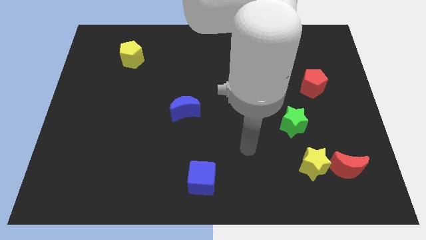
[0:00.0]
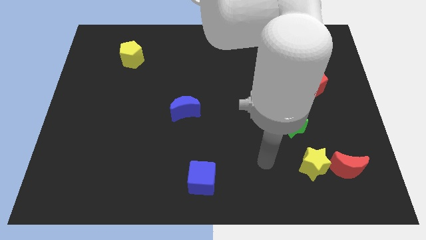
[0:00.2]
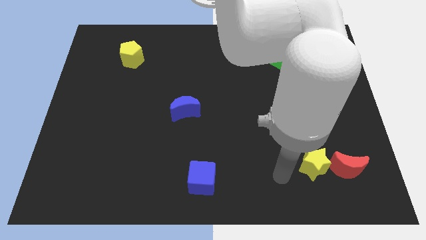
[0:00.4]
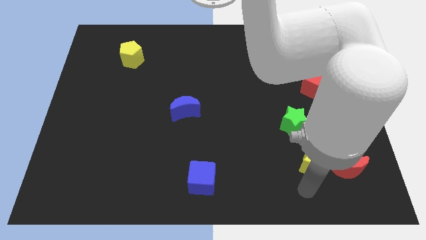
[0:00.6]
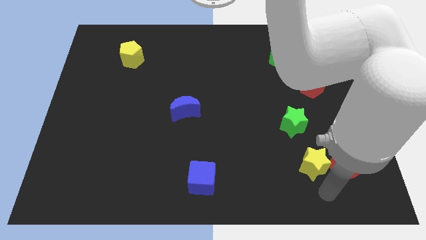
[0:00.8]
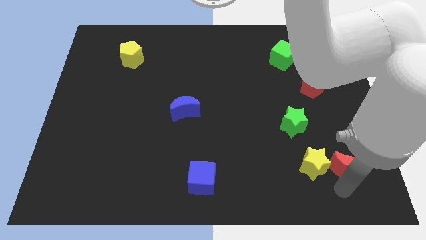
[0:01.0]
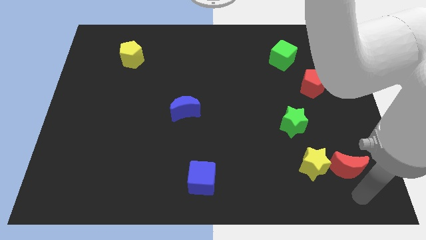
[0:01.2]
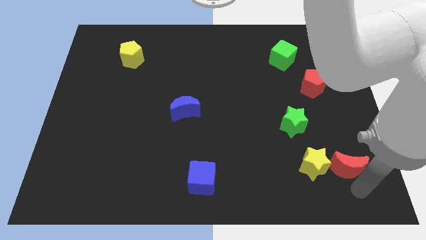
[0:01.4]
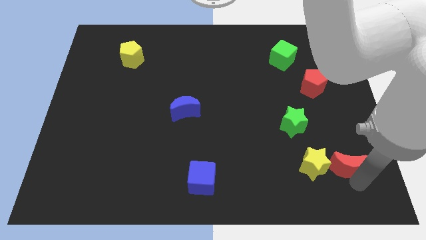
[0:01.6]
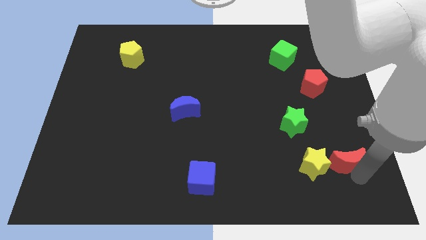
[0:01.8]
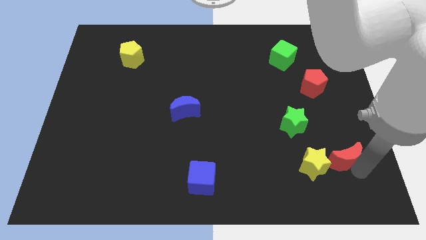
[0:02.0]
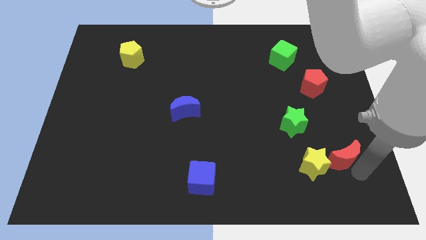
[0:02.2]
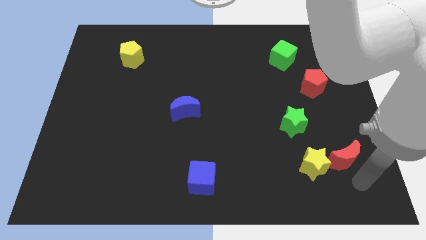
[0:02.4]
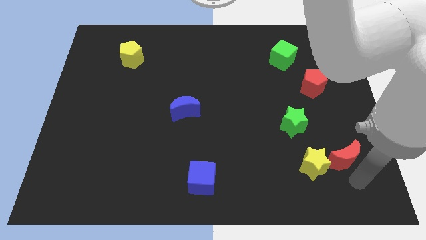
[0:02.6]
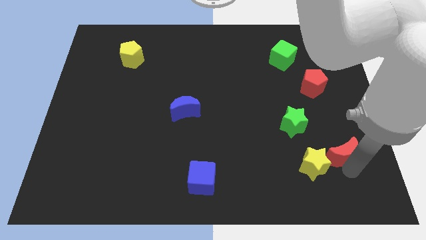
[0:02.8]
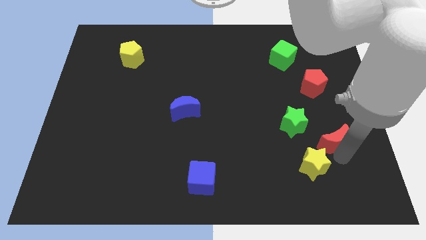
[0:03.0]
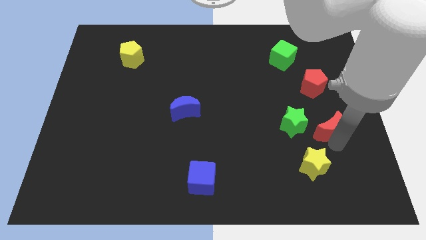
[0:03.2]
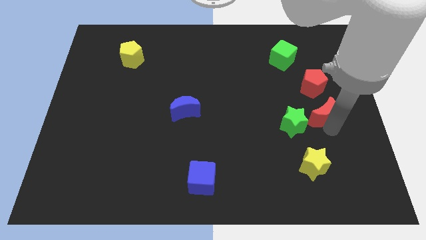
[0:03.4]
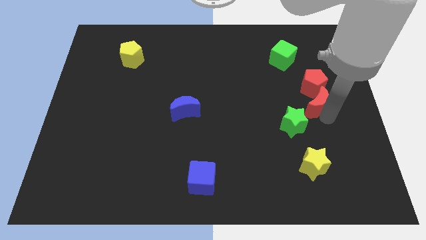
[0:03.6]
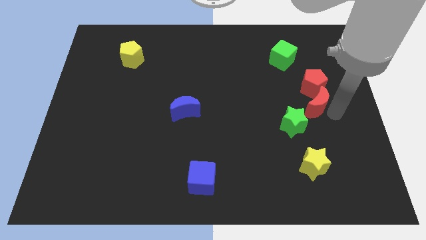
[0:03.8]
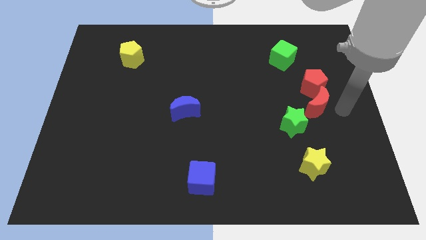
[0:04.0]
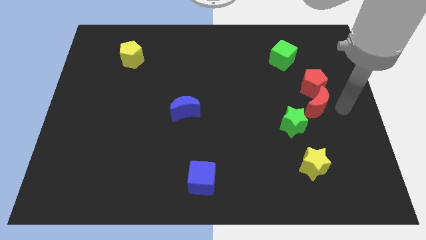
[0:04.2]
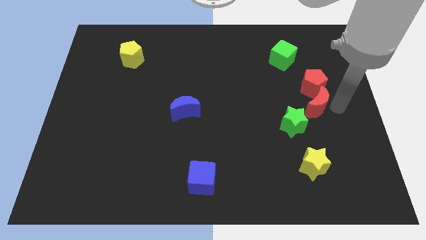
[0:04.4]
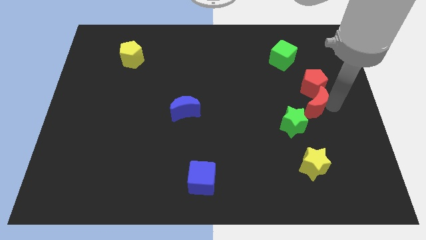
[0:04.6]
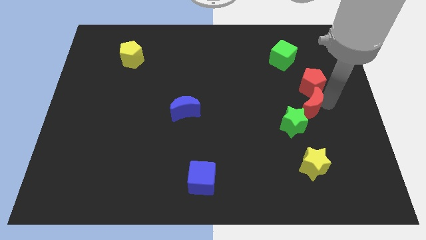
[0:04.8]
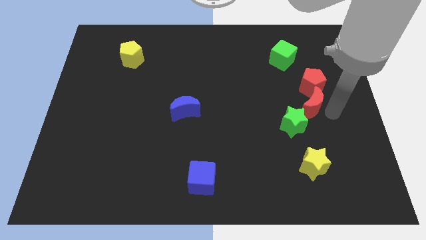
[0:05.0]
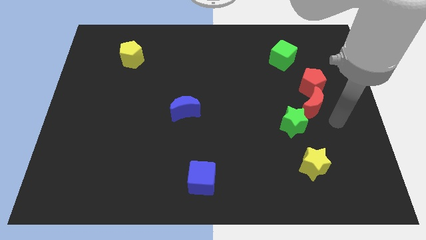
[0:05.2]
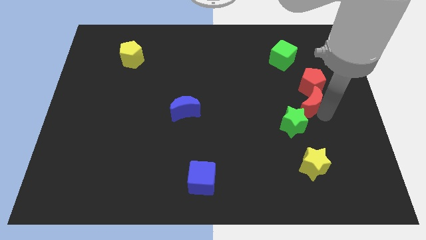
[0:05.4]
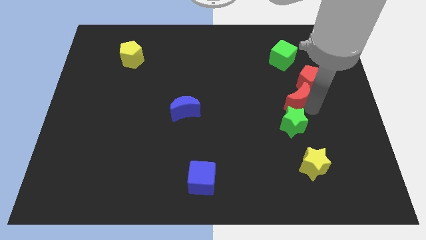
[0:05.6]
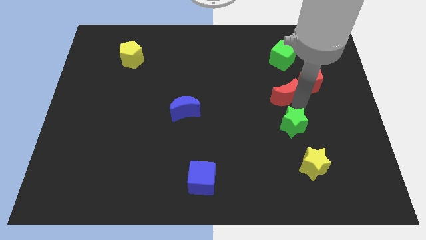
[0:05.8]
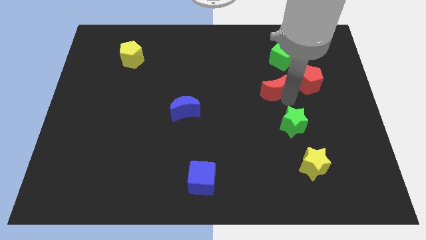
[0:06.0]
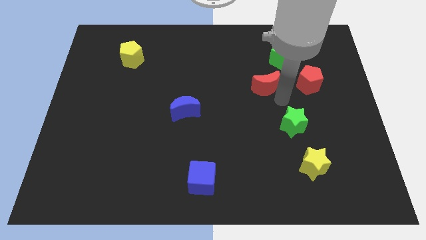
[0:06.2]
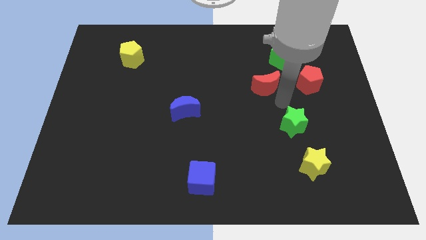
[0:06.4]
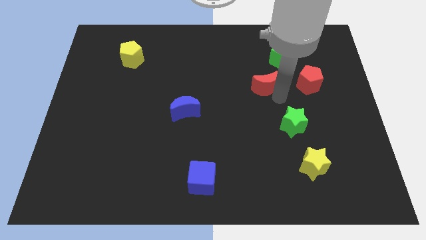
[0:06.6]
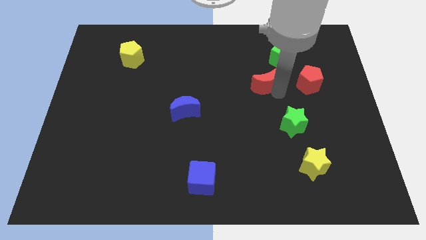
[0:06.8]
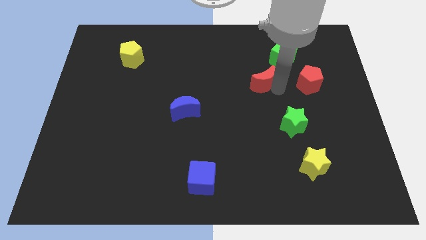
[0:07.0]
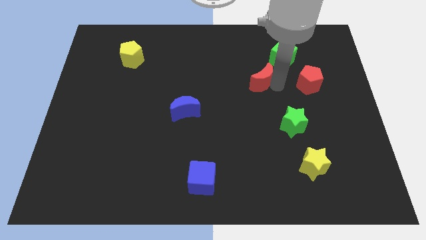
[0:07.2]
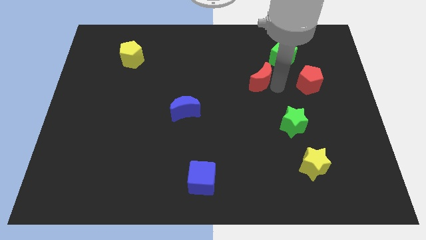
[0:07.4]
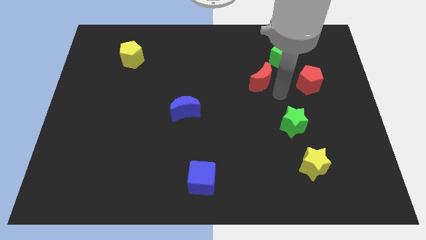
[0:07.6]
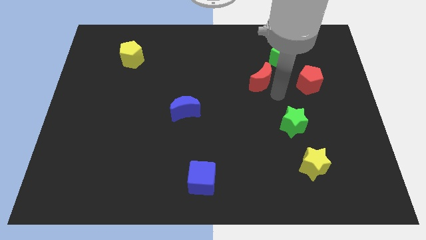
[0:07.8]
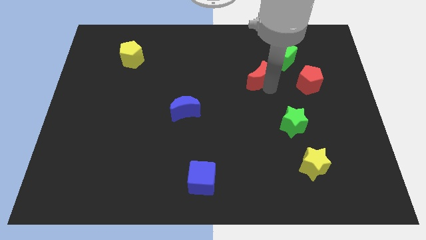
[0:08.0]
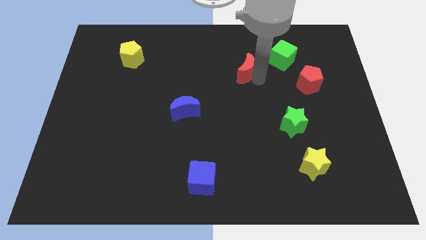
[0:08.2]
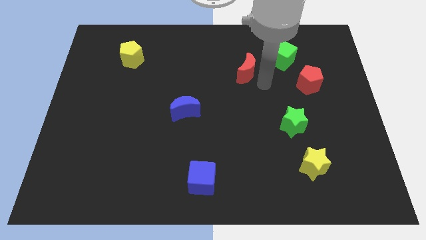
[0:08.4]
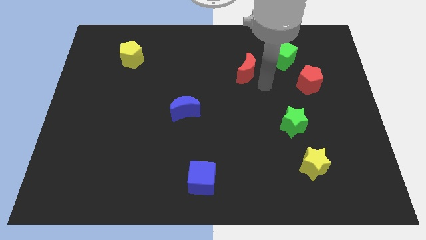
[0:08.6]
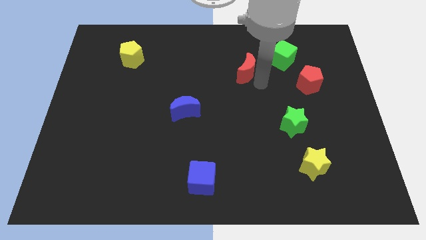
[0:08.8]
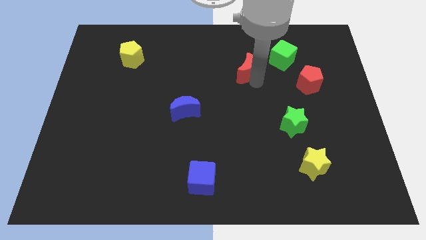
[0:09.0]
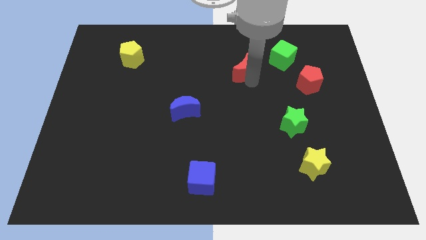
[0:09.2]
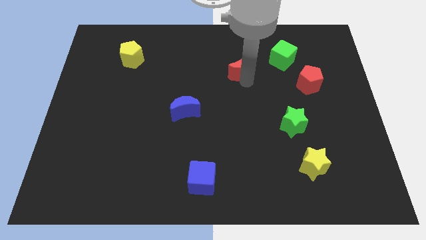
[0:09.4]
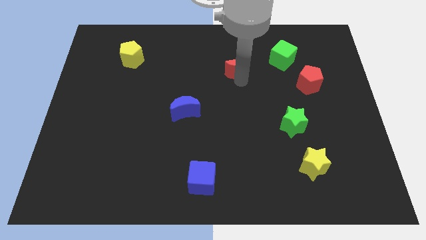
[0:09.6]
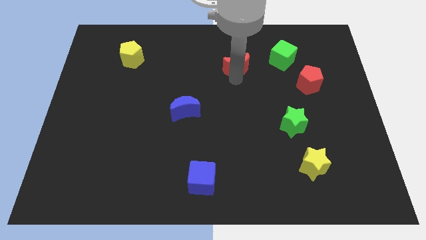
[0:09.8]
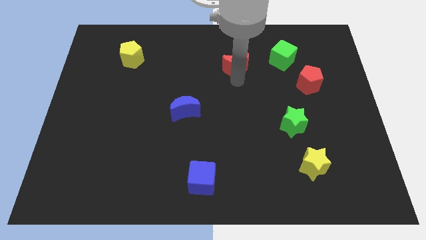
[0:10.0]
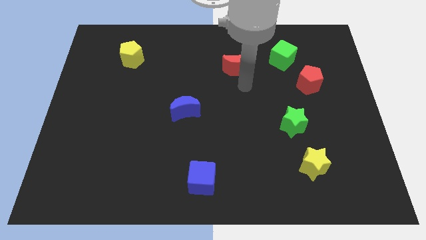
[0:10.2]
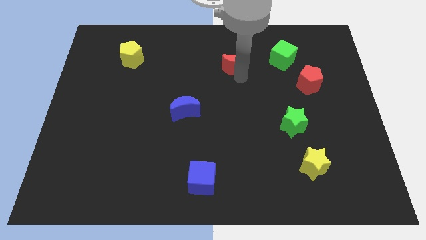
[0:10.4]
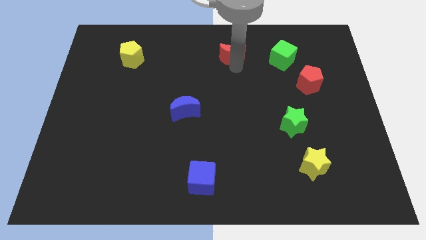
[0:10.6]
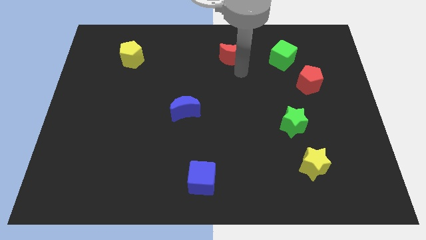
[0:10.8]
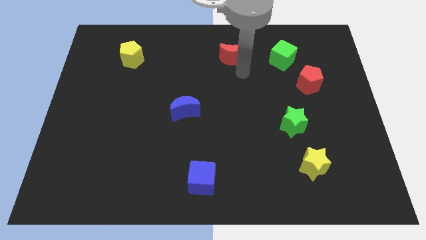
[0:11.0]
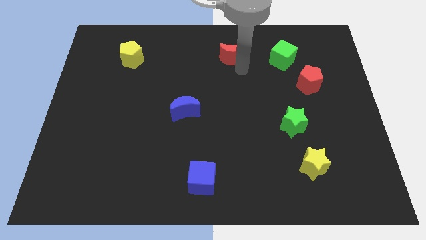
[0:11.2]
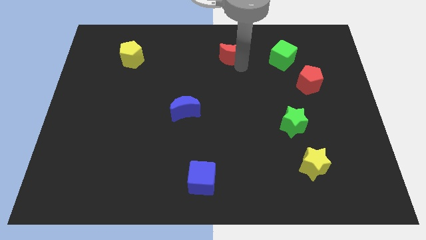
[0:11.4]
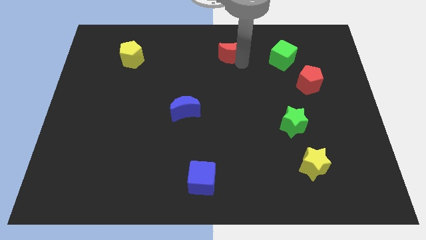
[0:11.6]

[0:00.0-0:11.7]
put the red moon to the top side
